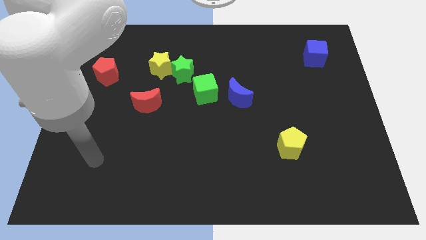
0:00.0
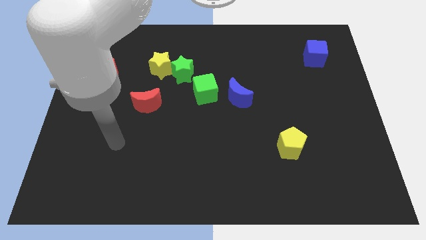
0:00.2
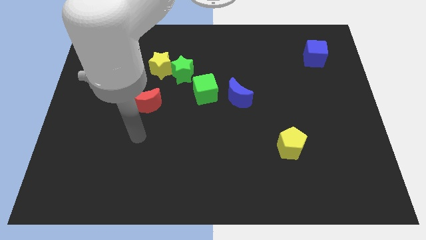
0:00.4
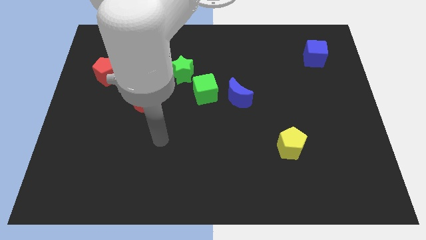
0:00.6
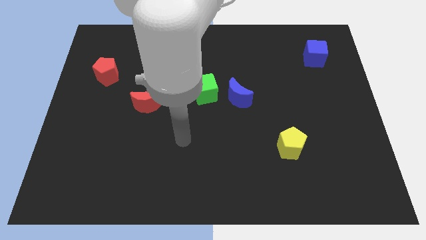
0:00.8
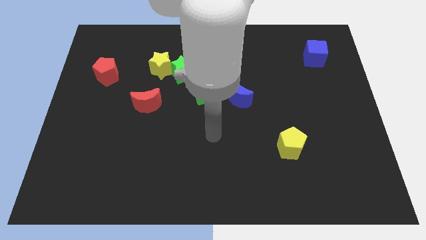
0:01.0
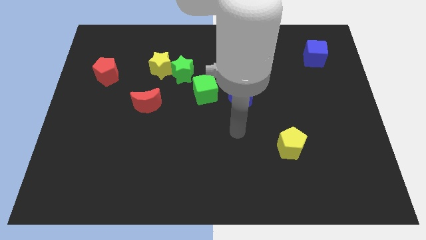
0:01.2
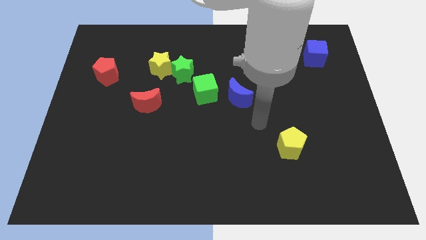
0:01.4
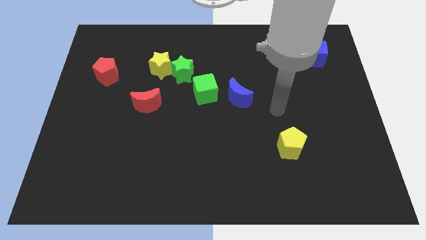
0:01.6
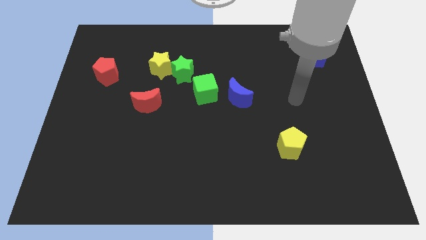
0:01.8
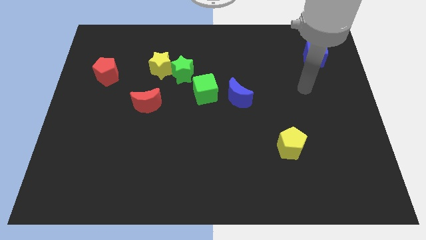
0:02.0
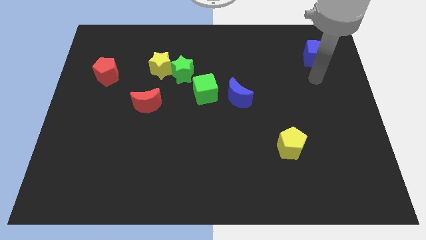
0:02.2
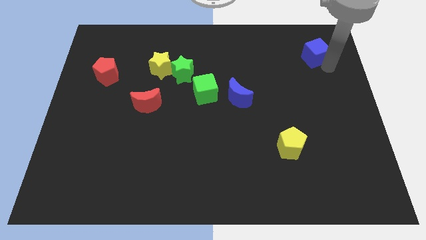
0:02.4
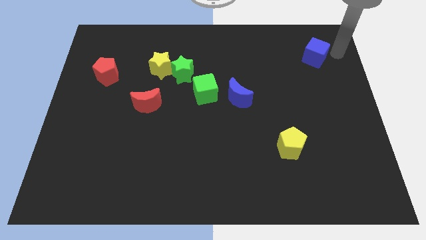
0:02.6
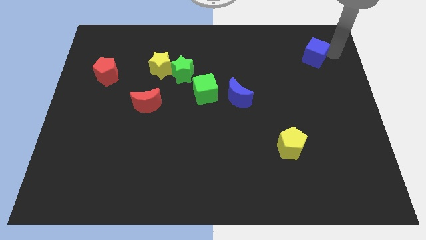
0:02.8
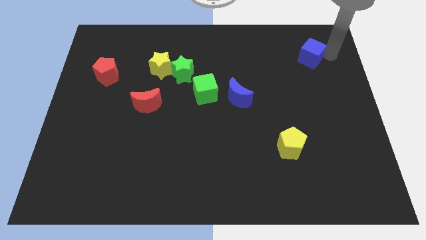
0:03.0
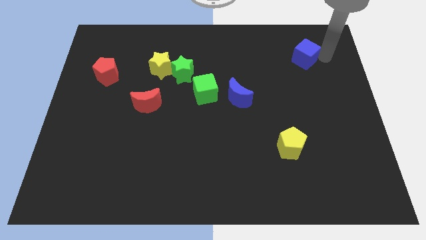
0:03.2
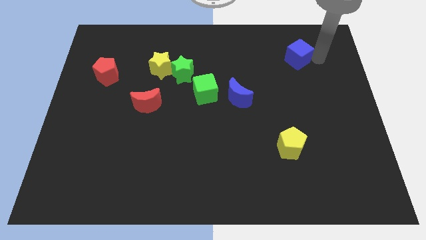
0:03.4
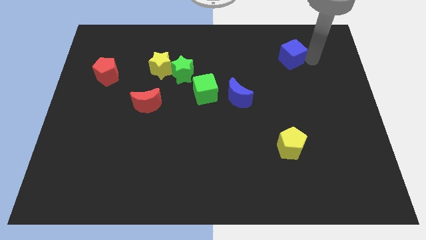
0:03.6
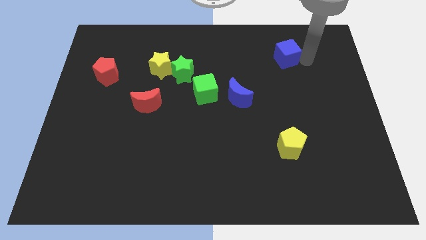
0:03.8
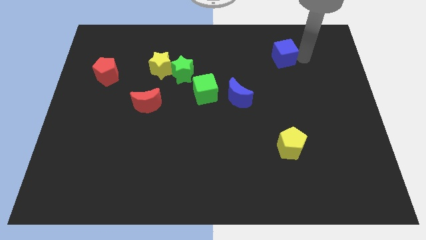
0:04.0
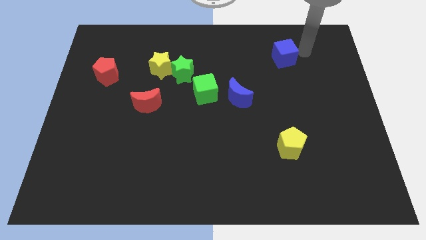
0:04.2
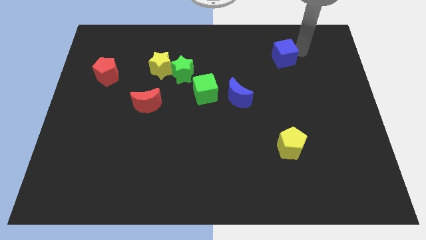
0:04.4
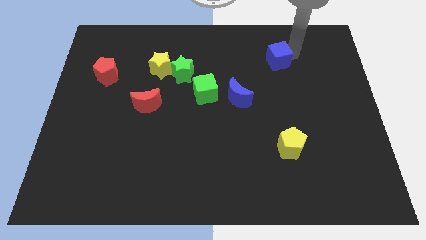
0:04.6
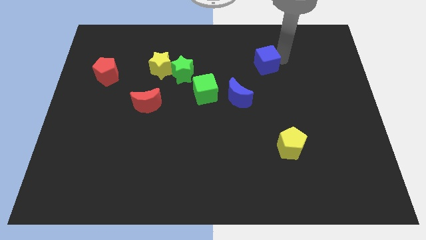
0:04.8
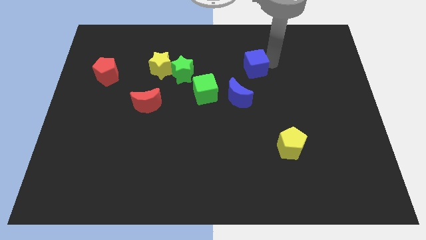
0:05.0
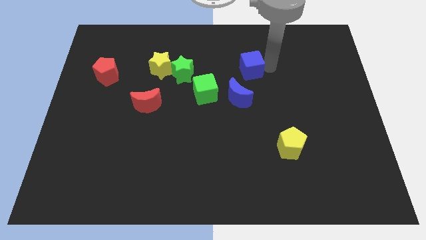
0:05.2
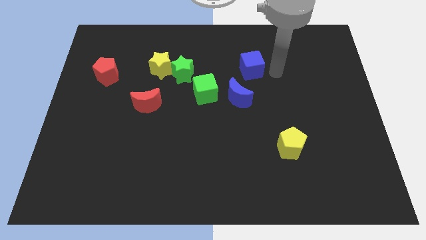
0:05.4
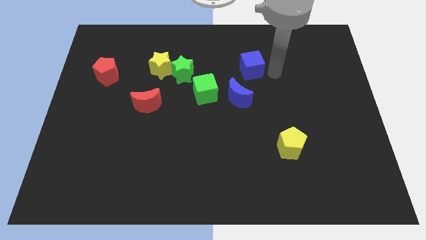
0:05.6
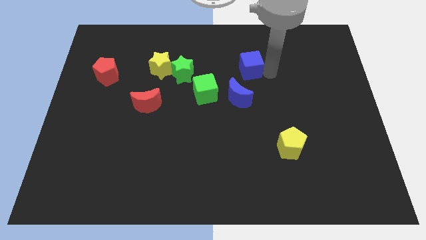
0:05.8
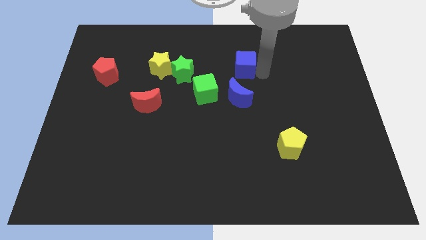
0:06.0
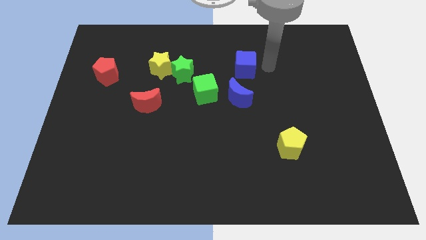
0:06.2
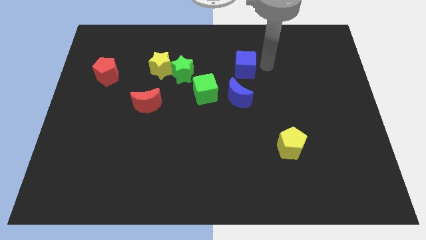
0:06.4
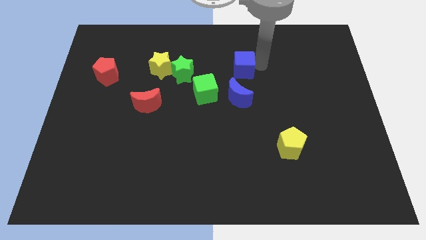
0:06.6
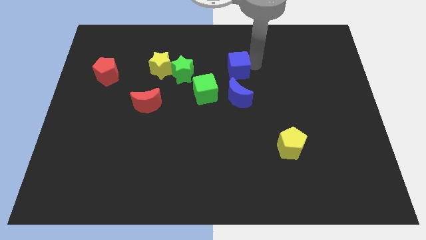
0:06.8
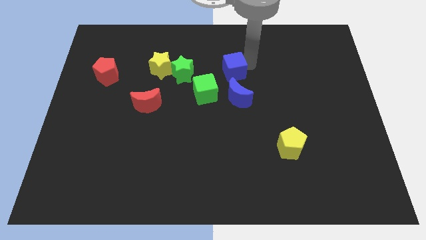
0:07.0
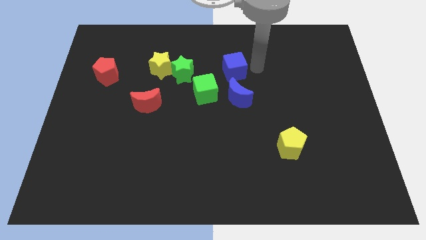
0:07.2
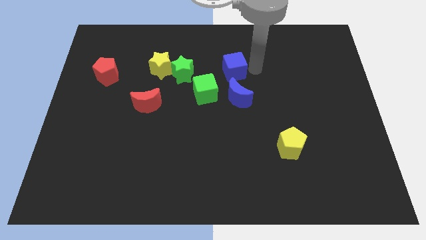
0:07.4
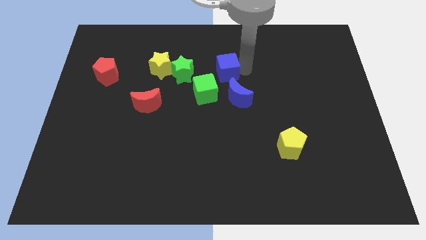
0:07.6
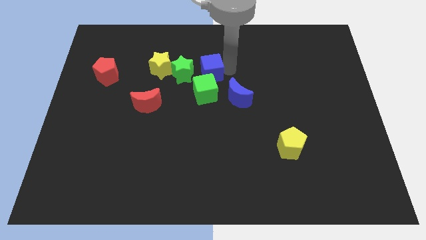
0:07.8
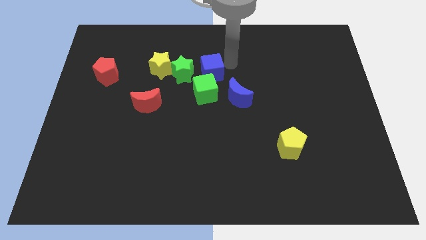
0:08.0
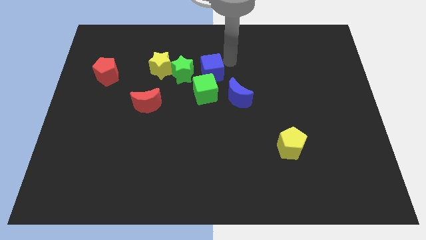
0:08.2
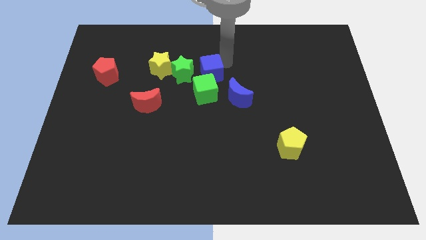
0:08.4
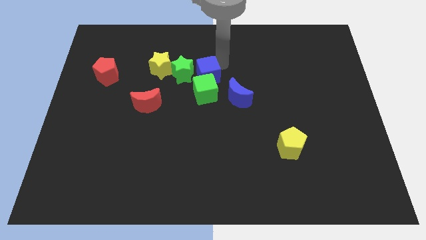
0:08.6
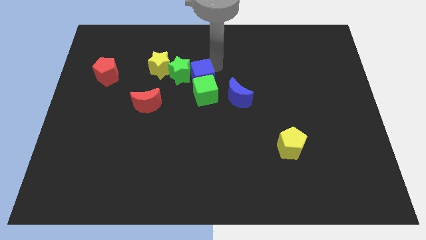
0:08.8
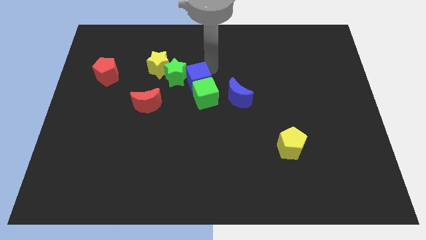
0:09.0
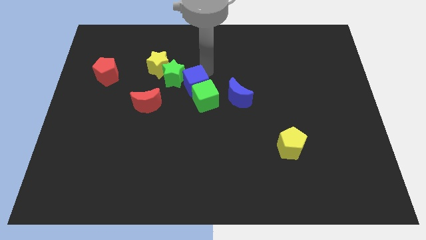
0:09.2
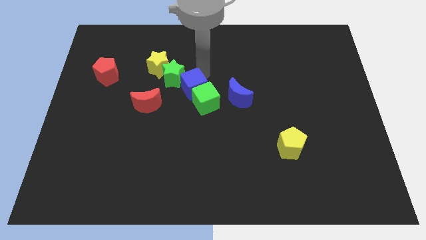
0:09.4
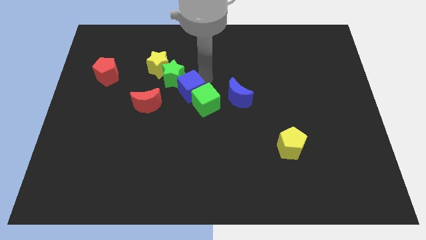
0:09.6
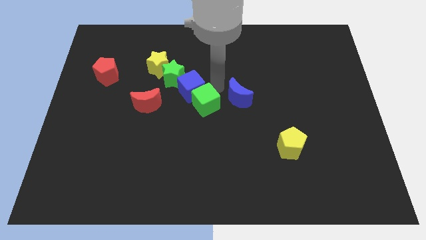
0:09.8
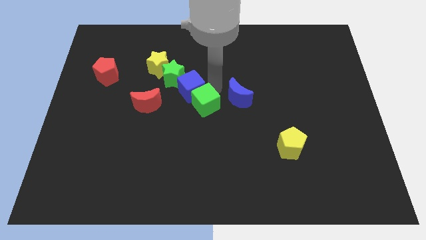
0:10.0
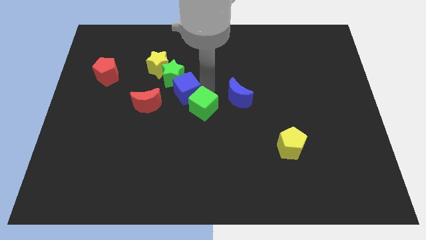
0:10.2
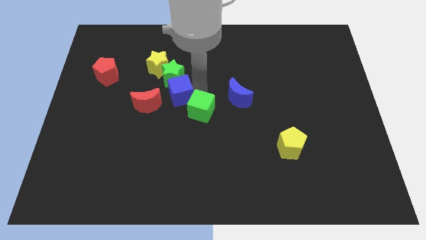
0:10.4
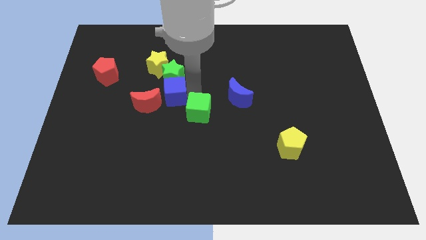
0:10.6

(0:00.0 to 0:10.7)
move the blue cube to the bottom left side of the green star
